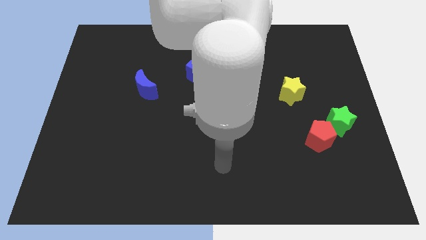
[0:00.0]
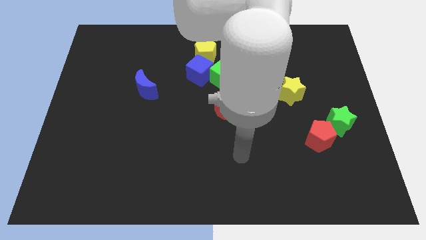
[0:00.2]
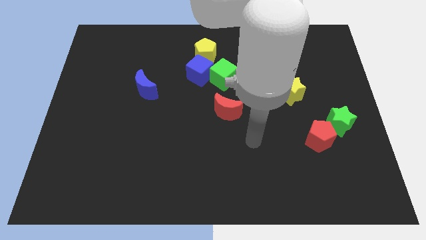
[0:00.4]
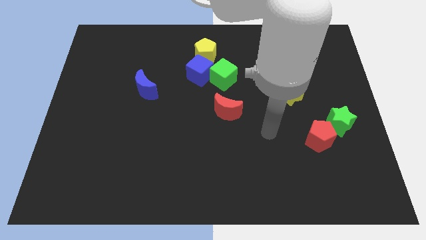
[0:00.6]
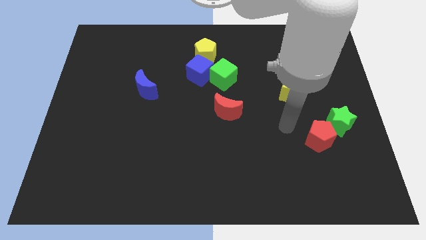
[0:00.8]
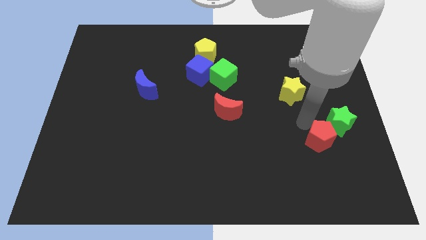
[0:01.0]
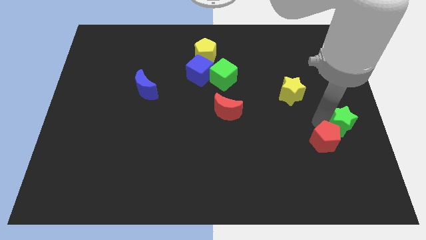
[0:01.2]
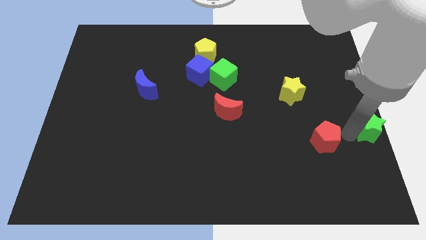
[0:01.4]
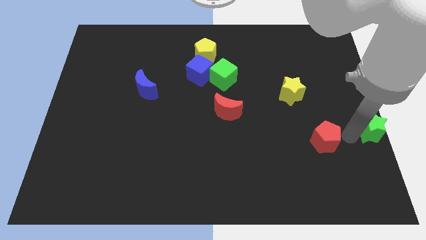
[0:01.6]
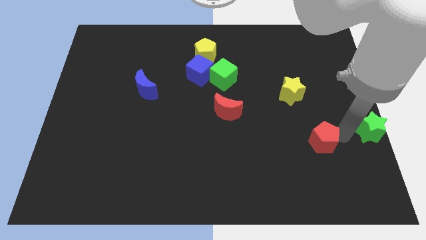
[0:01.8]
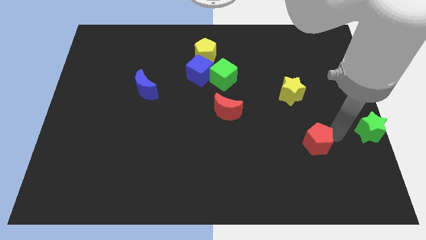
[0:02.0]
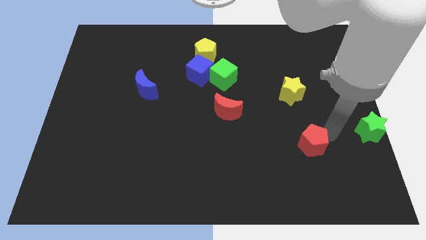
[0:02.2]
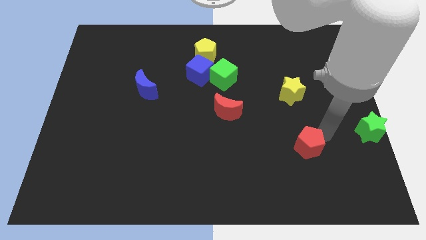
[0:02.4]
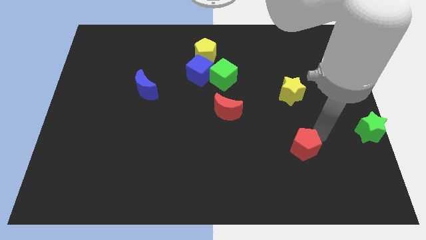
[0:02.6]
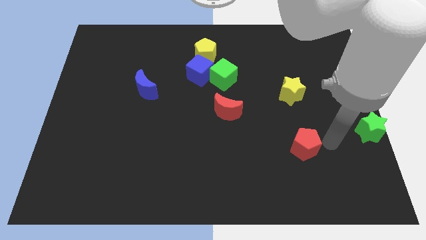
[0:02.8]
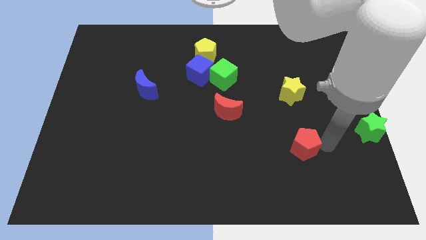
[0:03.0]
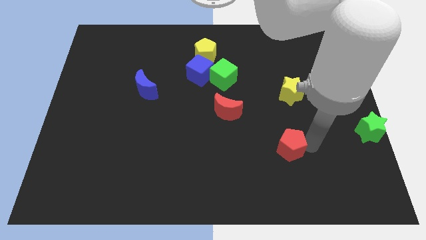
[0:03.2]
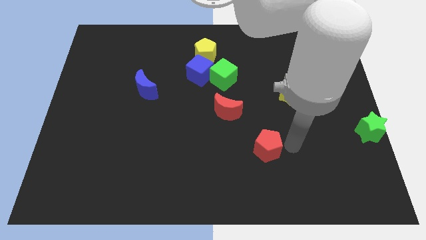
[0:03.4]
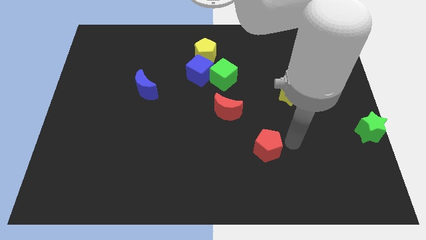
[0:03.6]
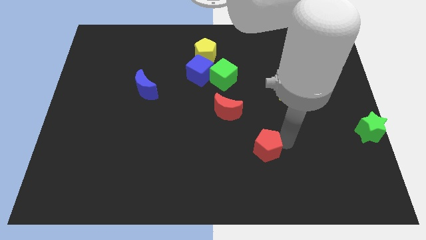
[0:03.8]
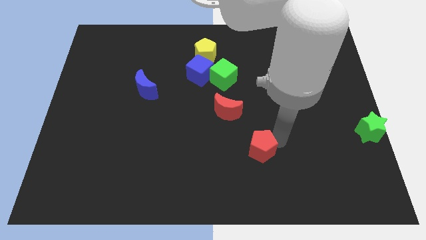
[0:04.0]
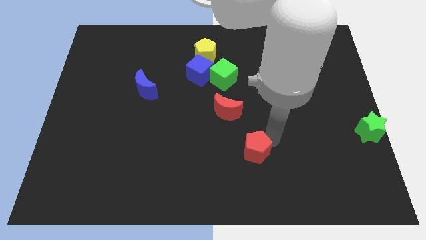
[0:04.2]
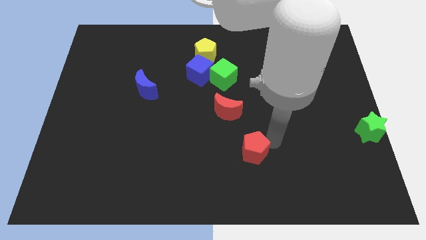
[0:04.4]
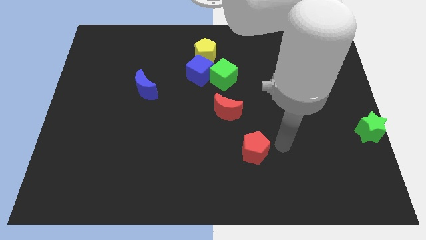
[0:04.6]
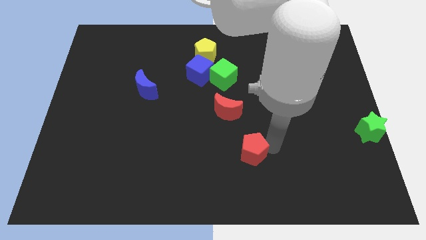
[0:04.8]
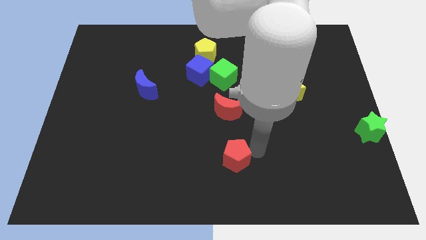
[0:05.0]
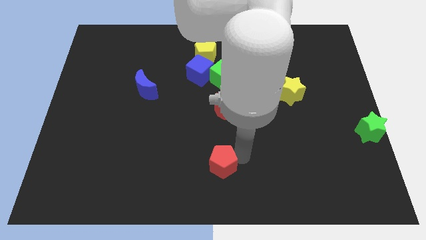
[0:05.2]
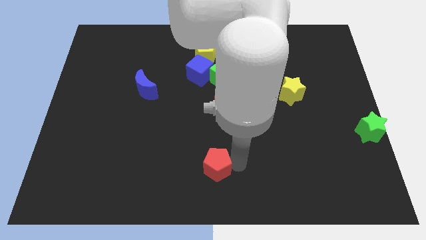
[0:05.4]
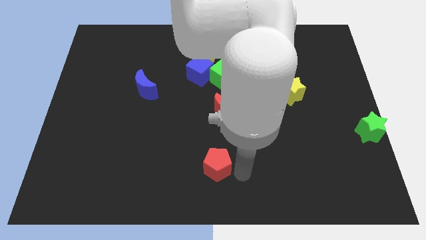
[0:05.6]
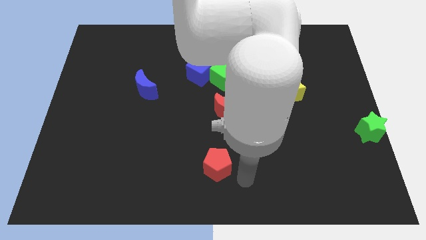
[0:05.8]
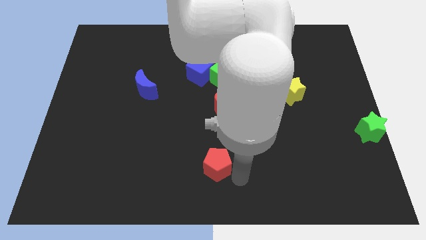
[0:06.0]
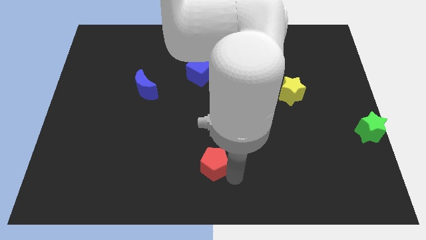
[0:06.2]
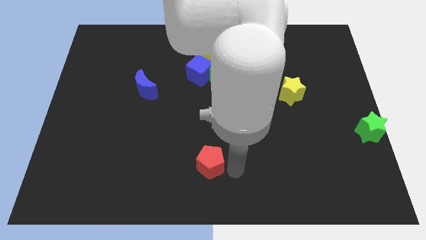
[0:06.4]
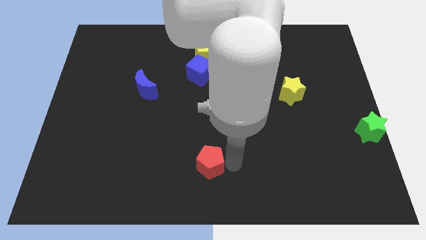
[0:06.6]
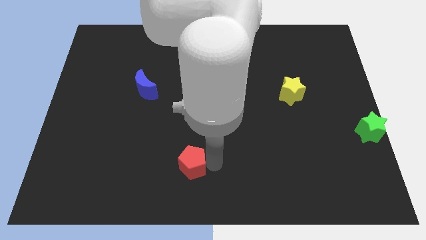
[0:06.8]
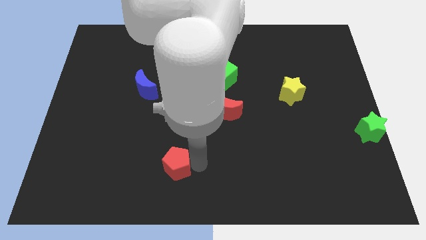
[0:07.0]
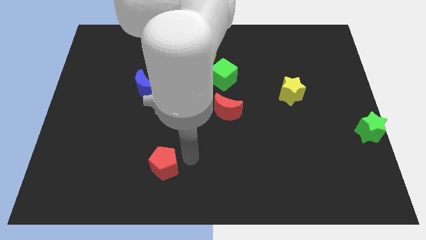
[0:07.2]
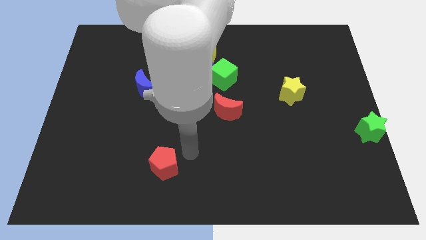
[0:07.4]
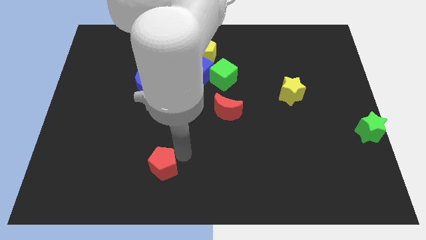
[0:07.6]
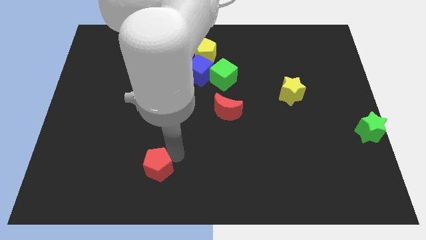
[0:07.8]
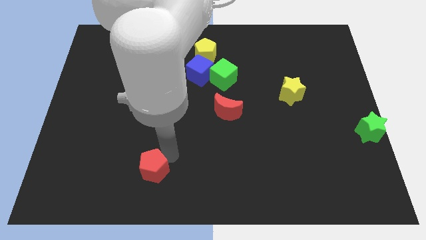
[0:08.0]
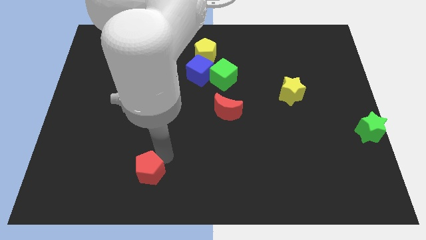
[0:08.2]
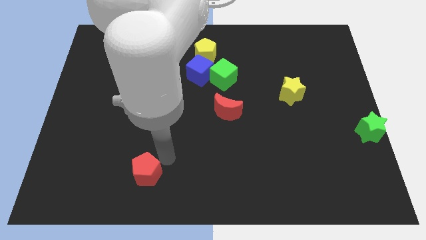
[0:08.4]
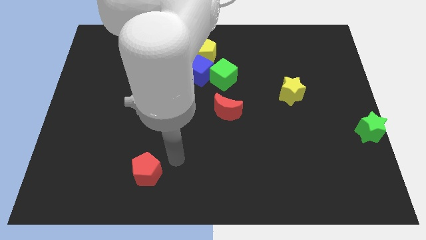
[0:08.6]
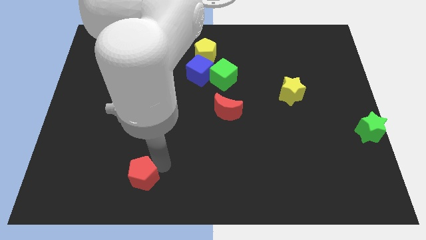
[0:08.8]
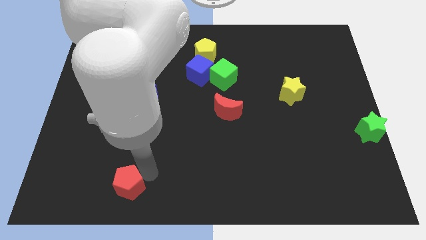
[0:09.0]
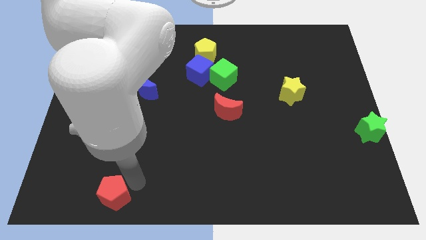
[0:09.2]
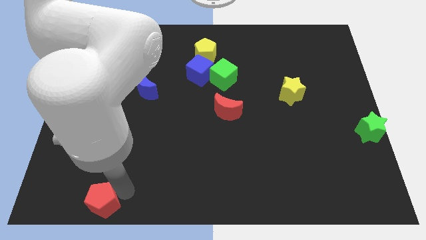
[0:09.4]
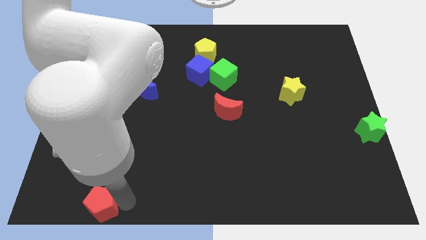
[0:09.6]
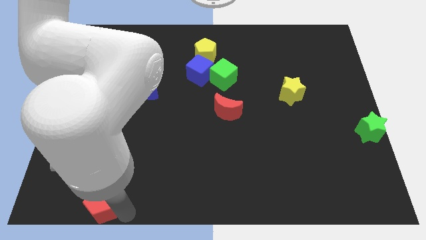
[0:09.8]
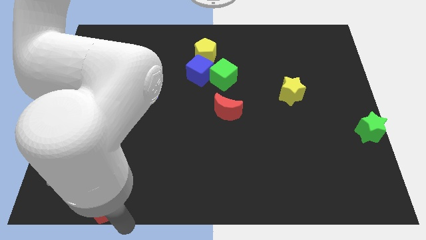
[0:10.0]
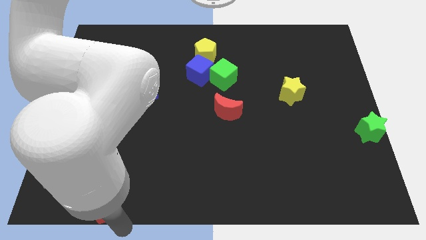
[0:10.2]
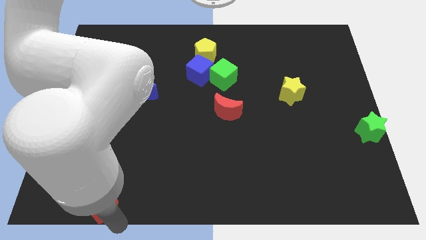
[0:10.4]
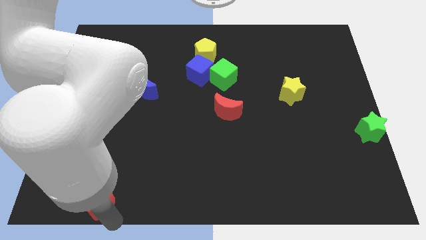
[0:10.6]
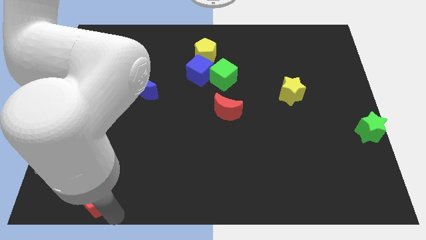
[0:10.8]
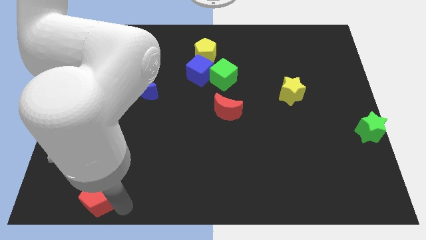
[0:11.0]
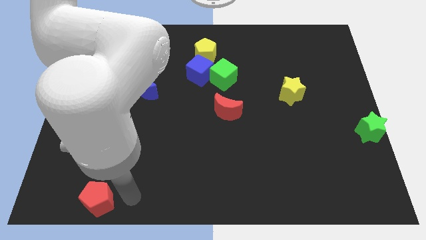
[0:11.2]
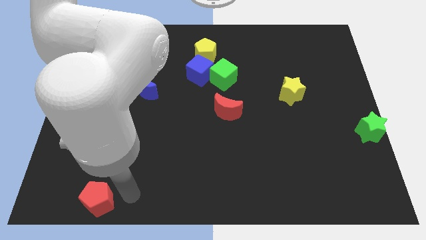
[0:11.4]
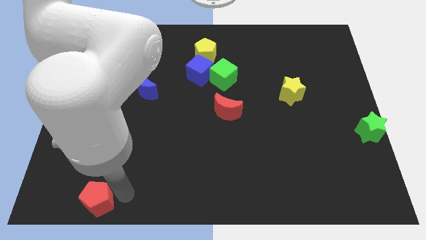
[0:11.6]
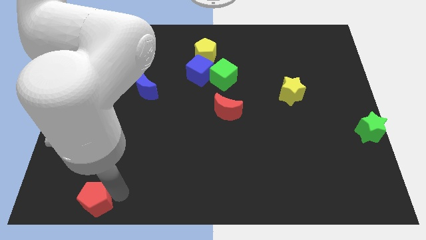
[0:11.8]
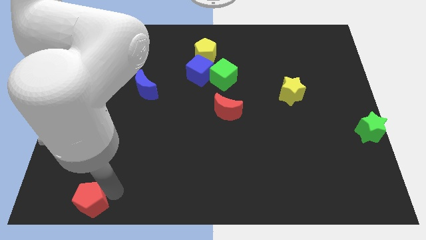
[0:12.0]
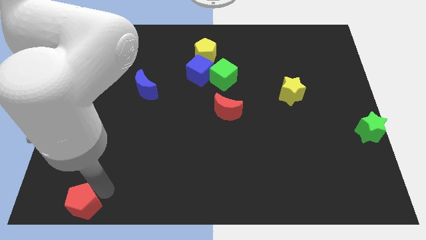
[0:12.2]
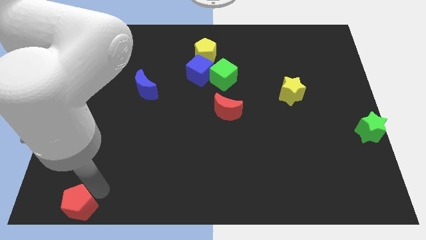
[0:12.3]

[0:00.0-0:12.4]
move the red pentagon to the bottom left of the board
